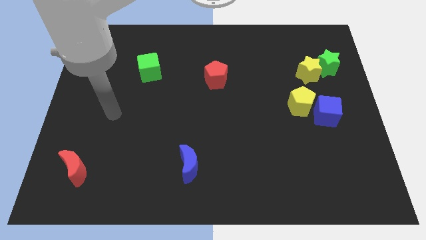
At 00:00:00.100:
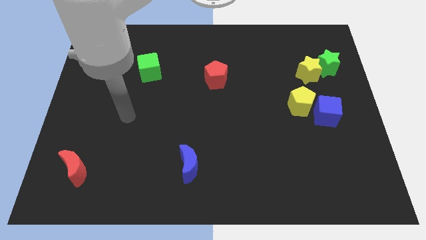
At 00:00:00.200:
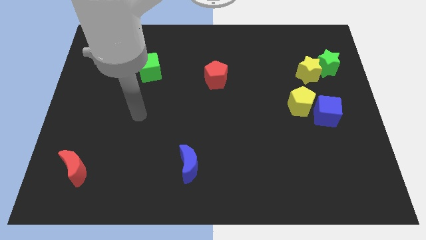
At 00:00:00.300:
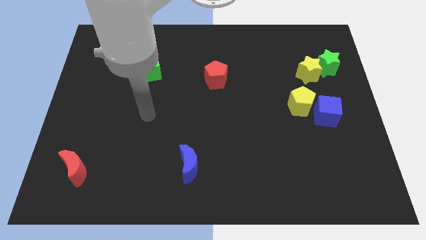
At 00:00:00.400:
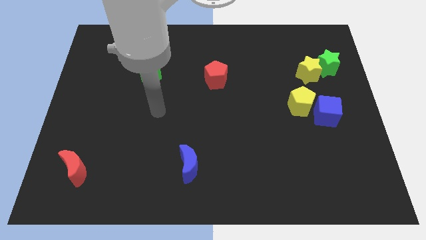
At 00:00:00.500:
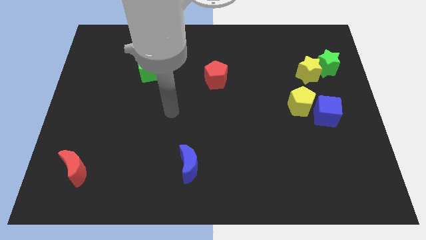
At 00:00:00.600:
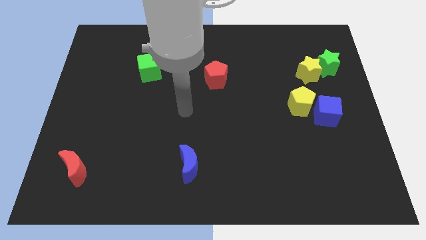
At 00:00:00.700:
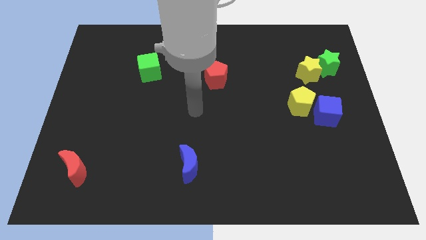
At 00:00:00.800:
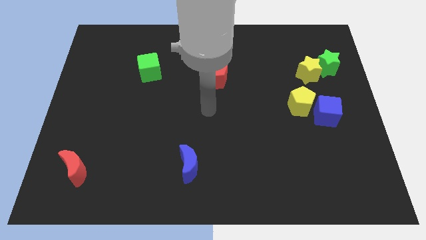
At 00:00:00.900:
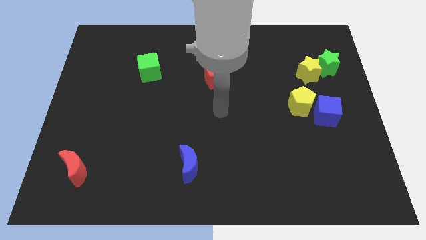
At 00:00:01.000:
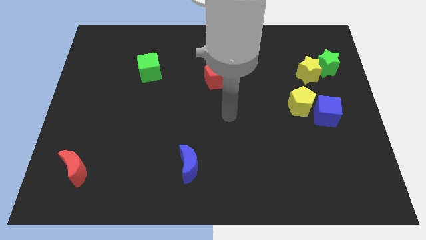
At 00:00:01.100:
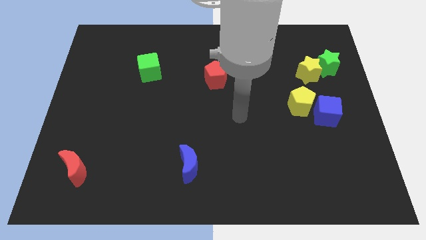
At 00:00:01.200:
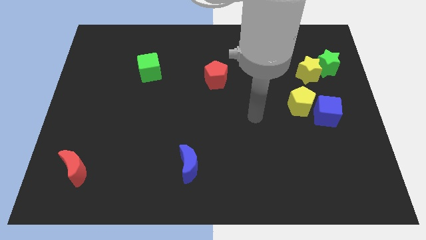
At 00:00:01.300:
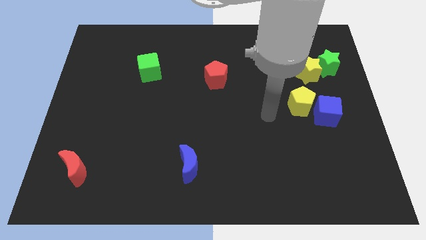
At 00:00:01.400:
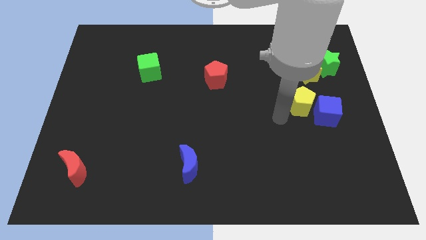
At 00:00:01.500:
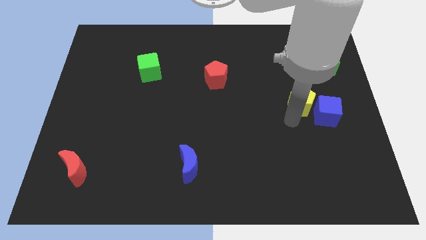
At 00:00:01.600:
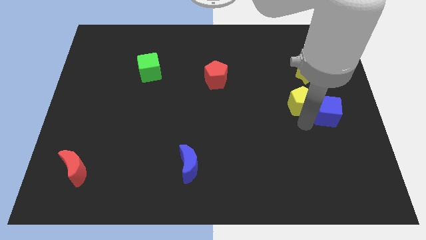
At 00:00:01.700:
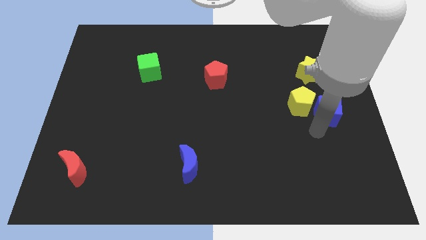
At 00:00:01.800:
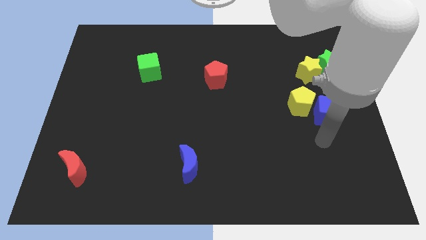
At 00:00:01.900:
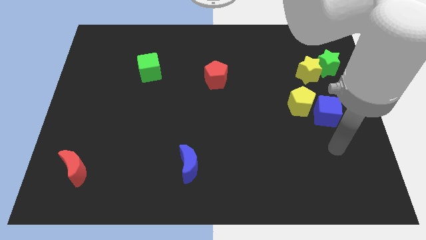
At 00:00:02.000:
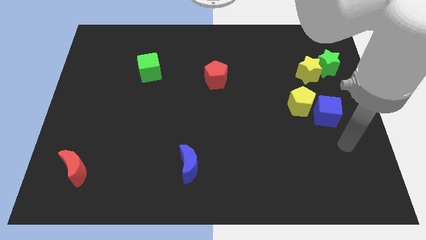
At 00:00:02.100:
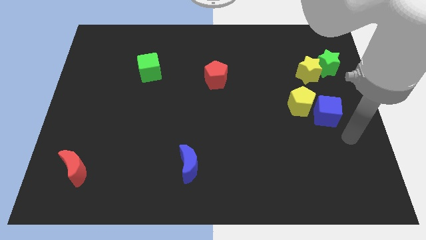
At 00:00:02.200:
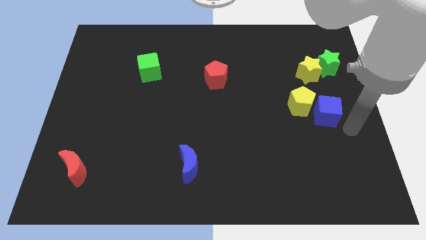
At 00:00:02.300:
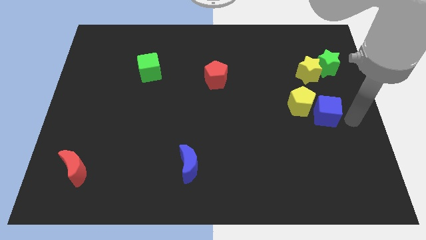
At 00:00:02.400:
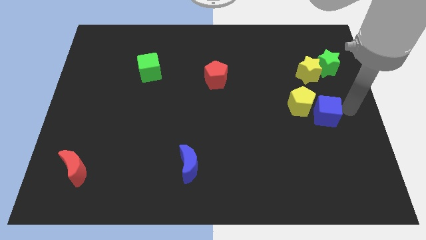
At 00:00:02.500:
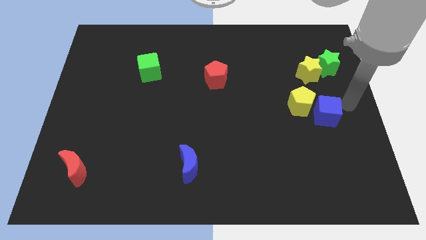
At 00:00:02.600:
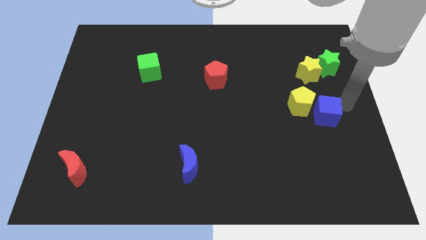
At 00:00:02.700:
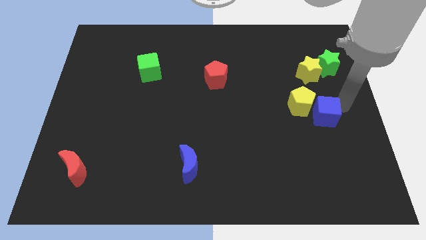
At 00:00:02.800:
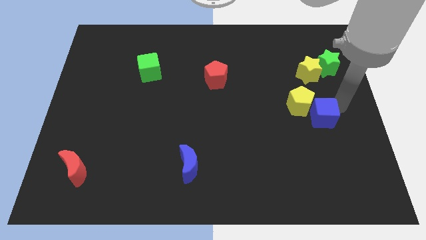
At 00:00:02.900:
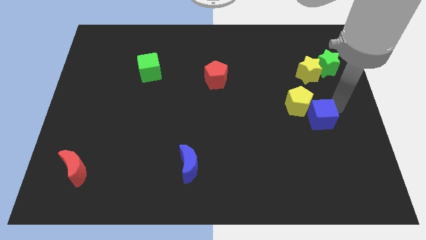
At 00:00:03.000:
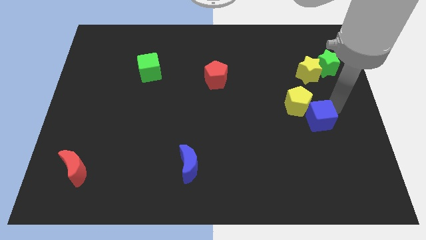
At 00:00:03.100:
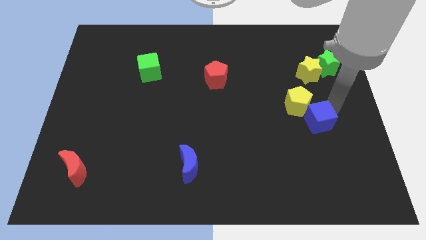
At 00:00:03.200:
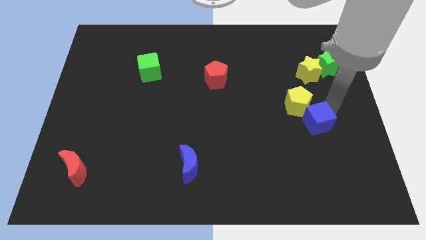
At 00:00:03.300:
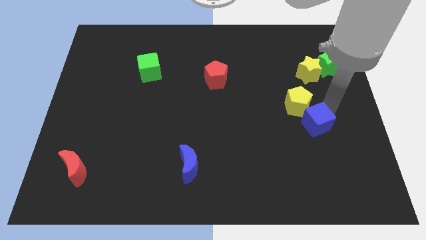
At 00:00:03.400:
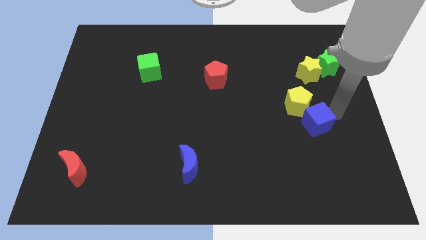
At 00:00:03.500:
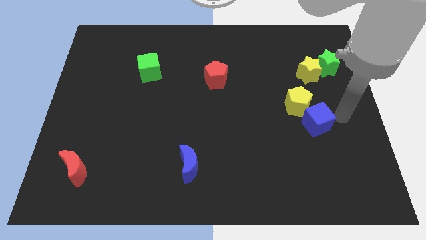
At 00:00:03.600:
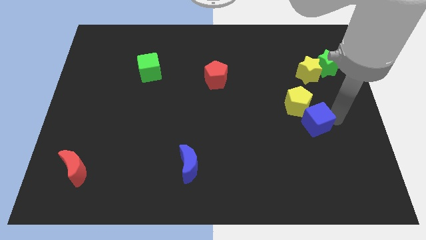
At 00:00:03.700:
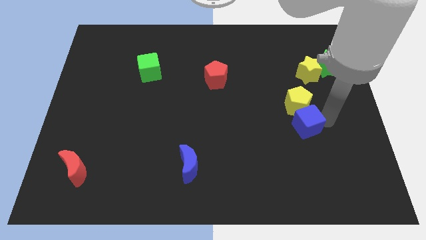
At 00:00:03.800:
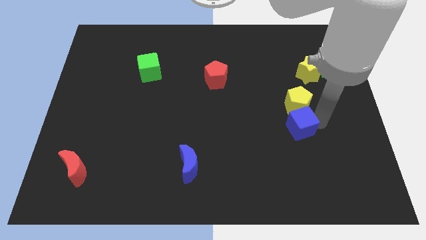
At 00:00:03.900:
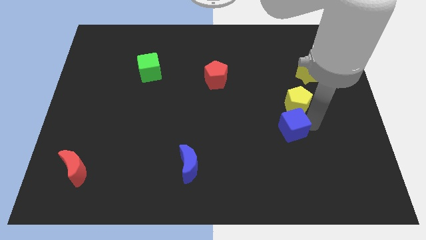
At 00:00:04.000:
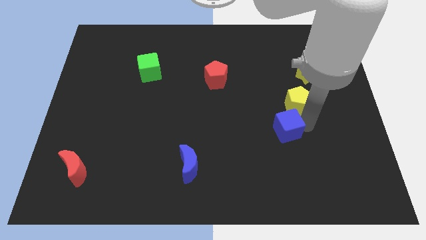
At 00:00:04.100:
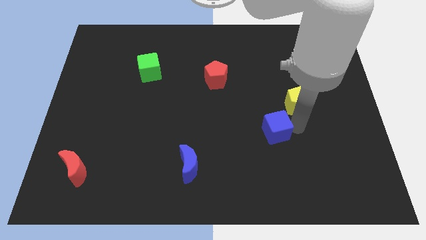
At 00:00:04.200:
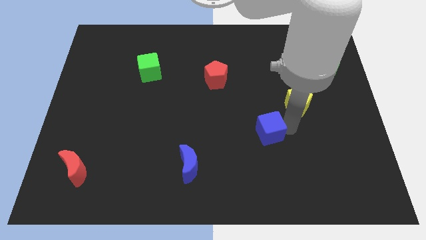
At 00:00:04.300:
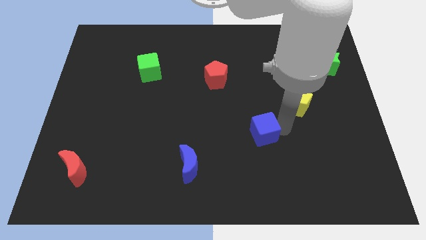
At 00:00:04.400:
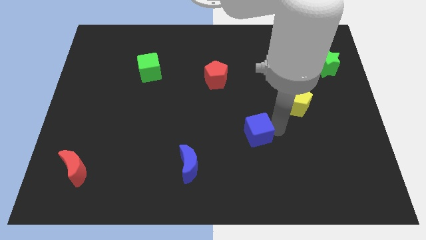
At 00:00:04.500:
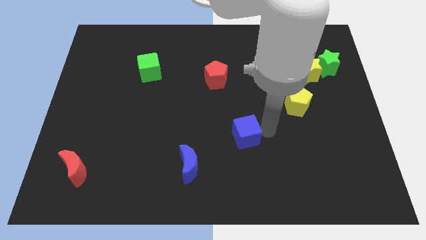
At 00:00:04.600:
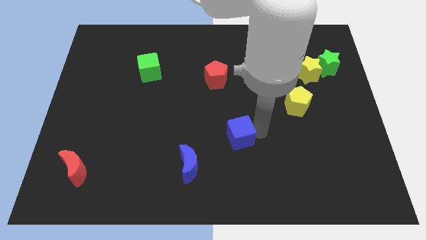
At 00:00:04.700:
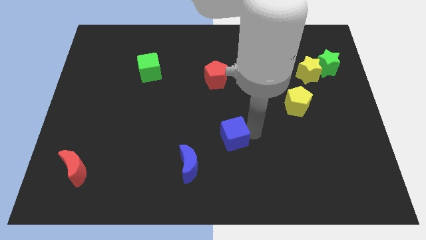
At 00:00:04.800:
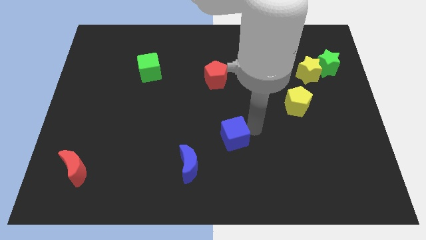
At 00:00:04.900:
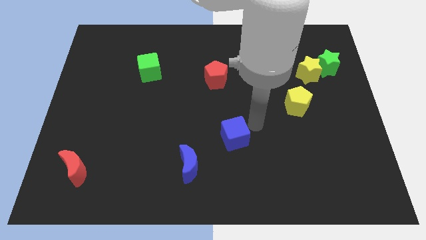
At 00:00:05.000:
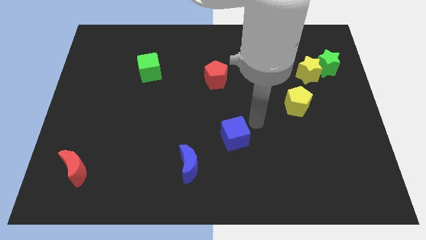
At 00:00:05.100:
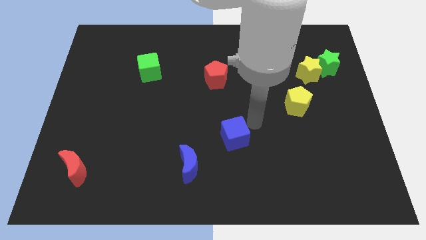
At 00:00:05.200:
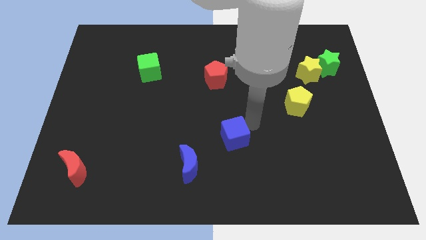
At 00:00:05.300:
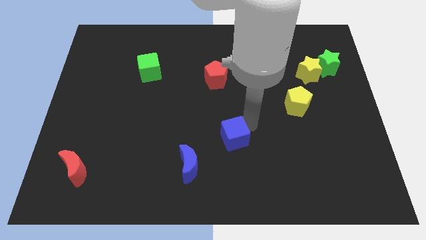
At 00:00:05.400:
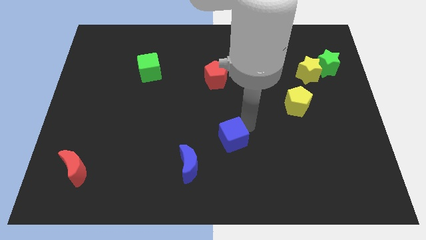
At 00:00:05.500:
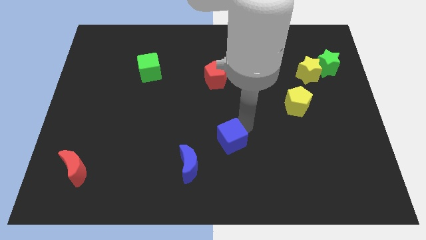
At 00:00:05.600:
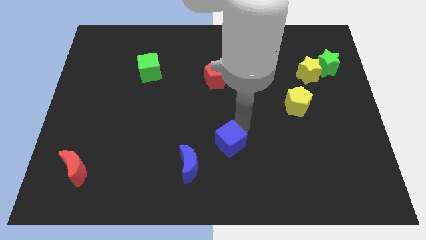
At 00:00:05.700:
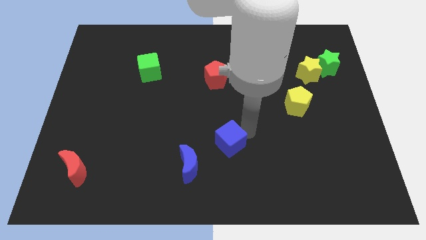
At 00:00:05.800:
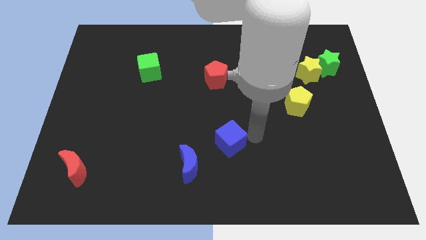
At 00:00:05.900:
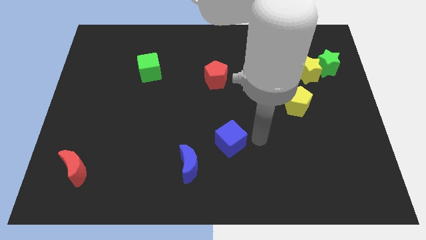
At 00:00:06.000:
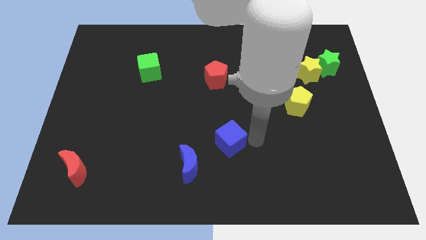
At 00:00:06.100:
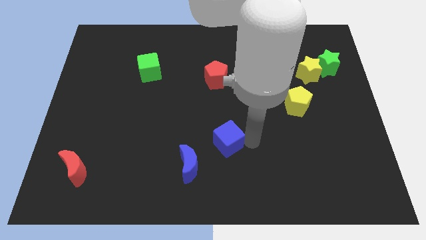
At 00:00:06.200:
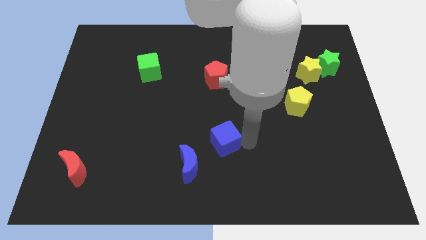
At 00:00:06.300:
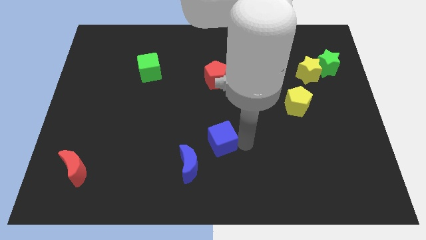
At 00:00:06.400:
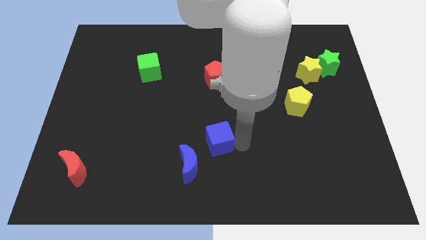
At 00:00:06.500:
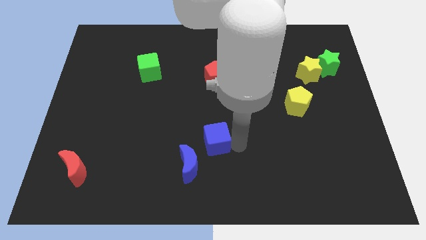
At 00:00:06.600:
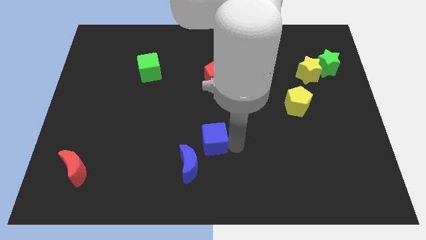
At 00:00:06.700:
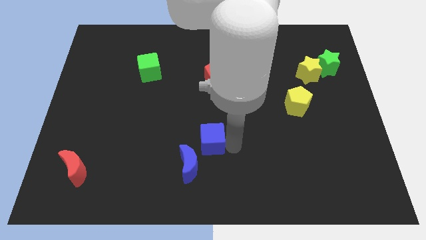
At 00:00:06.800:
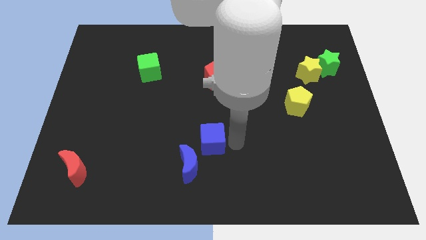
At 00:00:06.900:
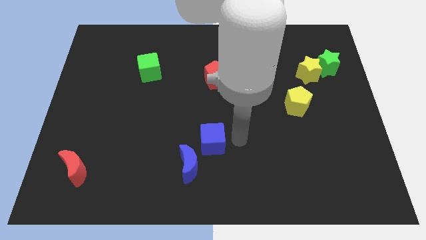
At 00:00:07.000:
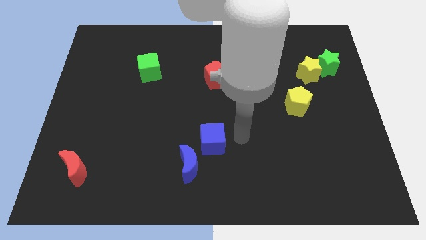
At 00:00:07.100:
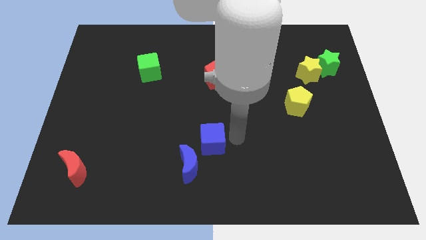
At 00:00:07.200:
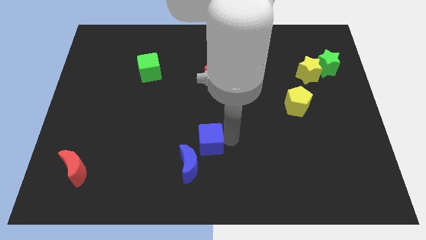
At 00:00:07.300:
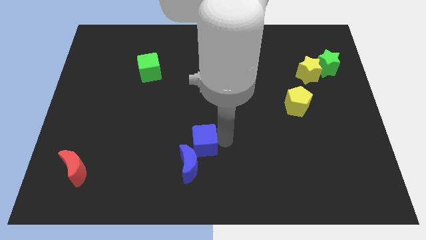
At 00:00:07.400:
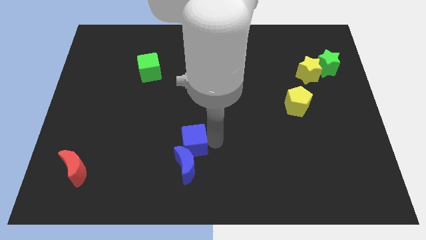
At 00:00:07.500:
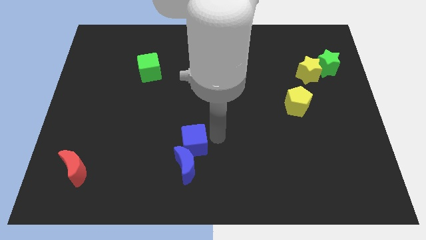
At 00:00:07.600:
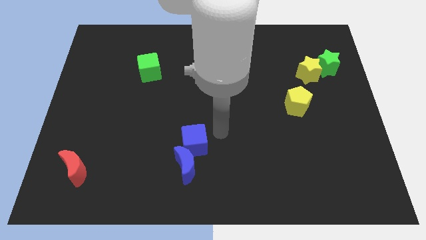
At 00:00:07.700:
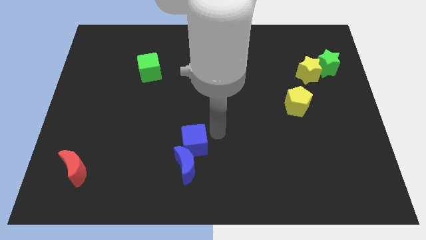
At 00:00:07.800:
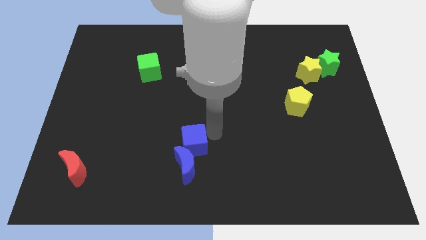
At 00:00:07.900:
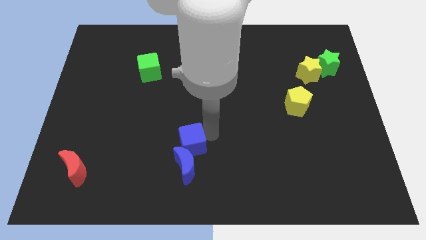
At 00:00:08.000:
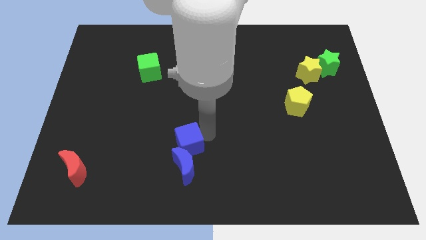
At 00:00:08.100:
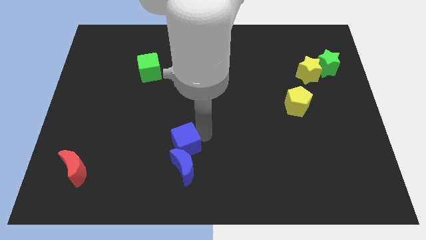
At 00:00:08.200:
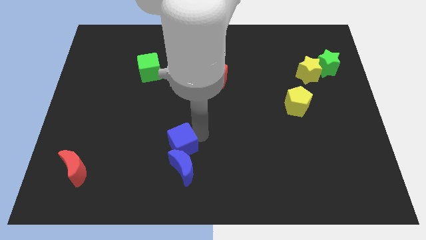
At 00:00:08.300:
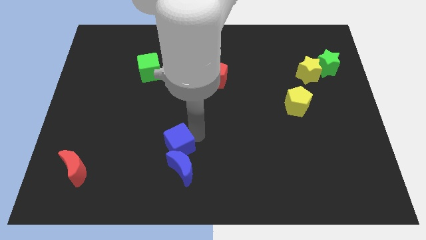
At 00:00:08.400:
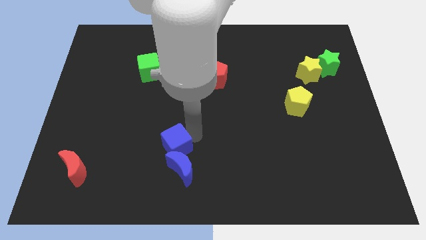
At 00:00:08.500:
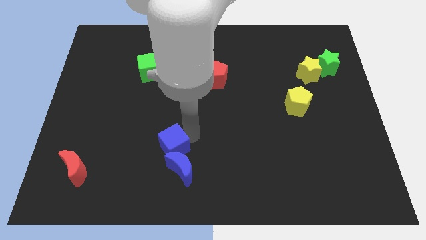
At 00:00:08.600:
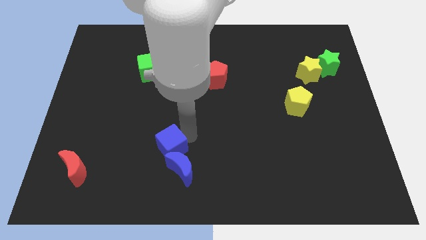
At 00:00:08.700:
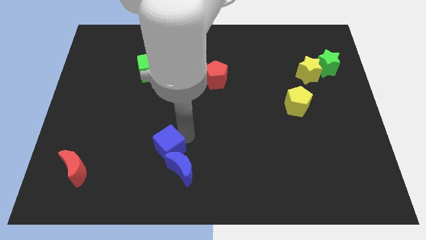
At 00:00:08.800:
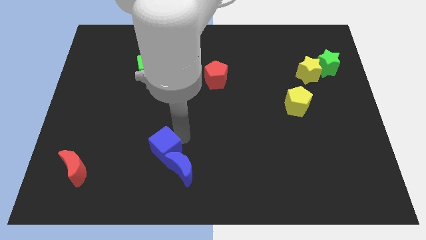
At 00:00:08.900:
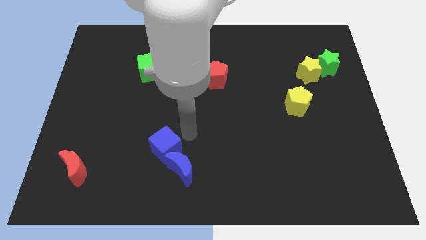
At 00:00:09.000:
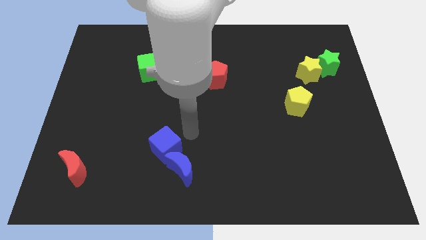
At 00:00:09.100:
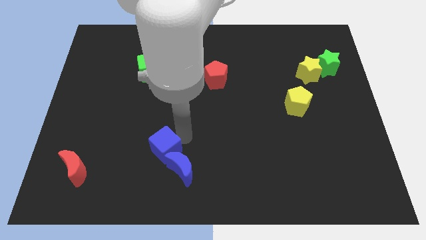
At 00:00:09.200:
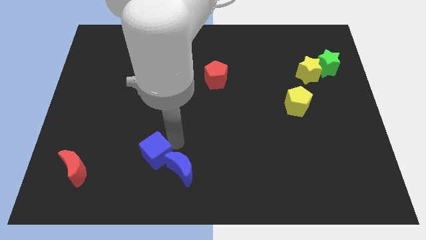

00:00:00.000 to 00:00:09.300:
slide the blue cube left of the blue moon
